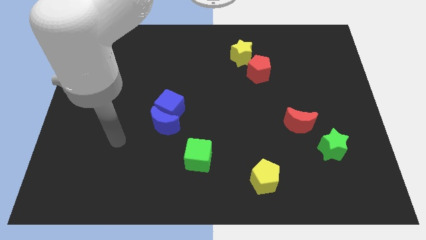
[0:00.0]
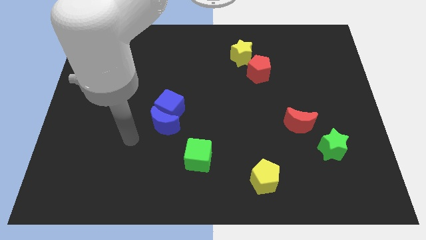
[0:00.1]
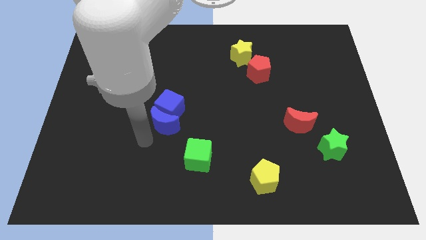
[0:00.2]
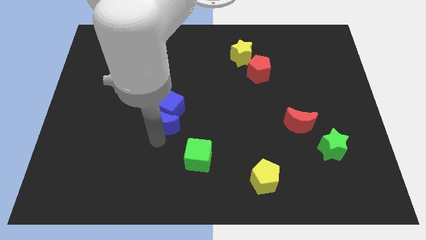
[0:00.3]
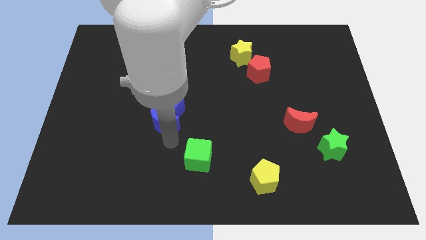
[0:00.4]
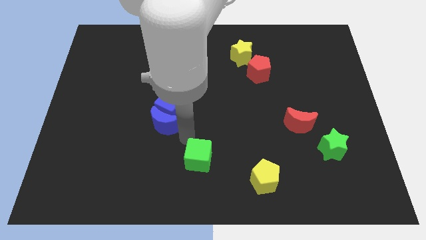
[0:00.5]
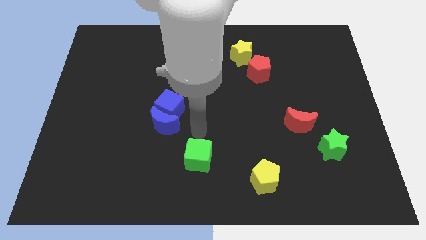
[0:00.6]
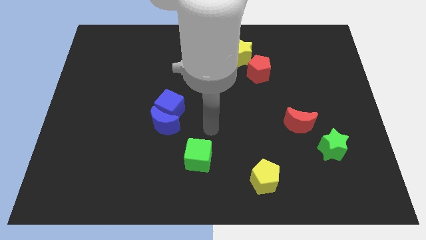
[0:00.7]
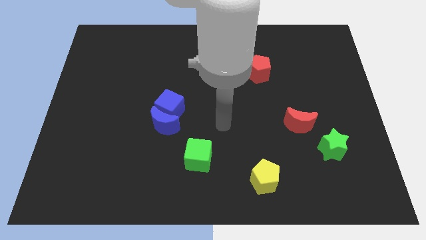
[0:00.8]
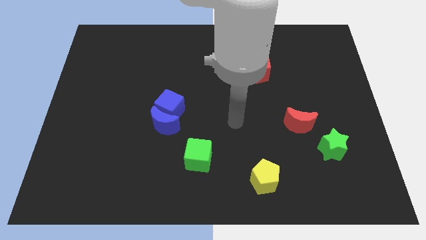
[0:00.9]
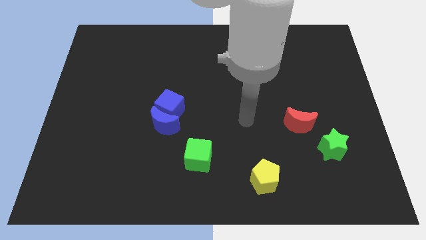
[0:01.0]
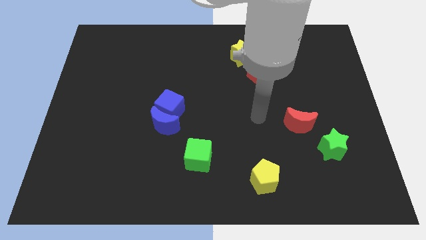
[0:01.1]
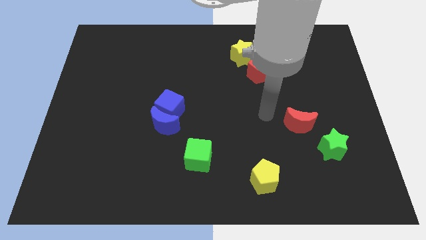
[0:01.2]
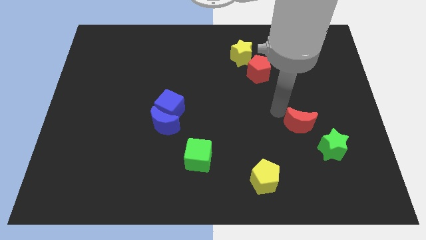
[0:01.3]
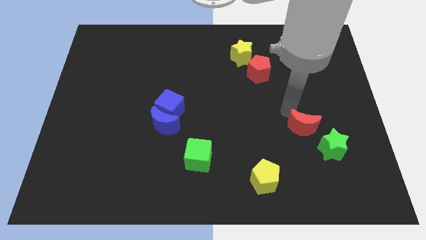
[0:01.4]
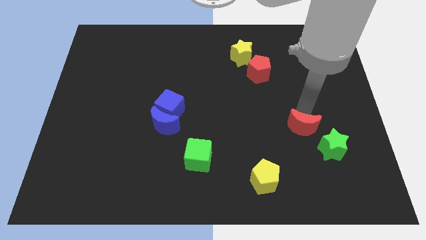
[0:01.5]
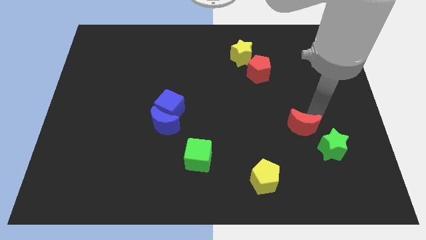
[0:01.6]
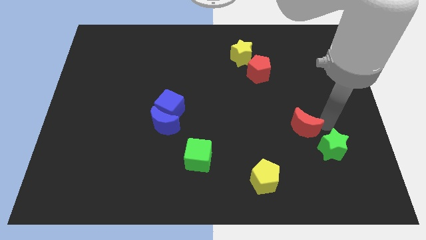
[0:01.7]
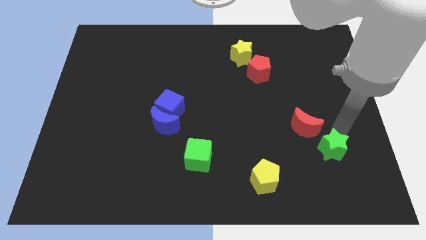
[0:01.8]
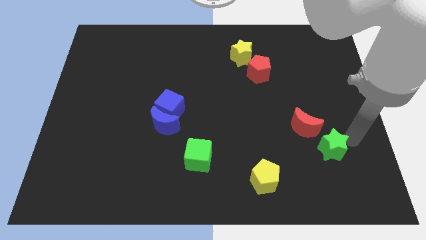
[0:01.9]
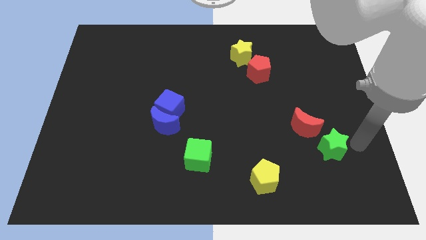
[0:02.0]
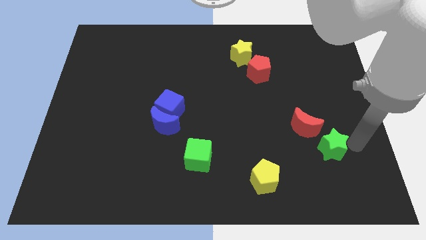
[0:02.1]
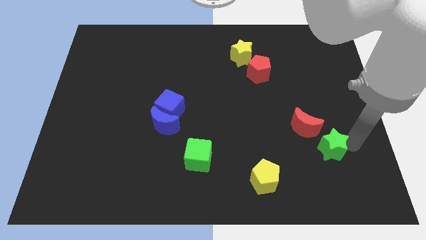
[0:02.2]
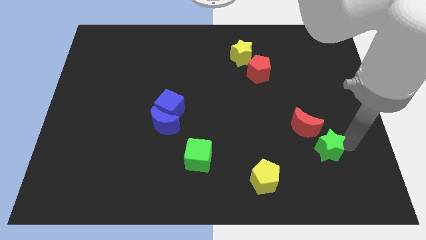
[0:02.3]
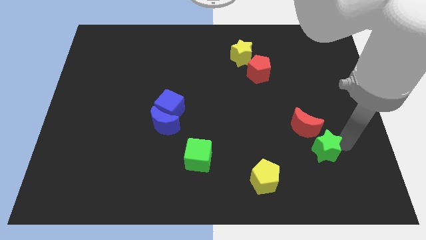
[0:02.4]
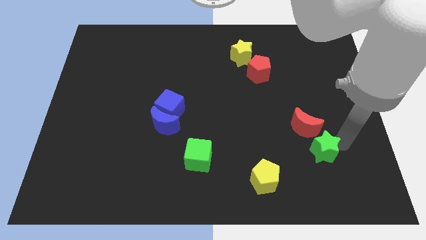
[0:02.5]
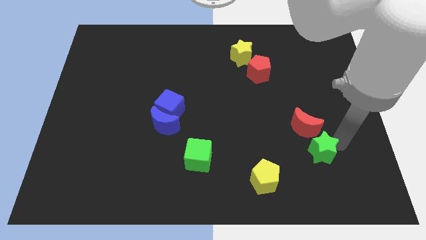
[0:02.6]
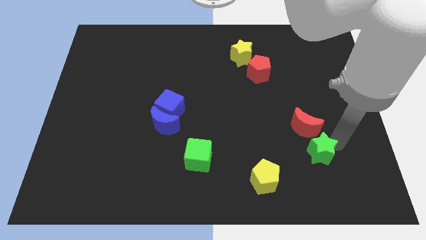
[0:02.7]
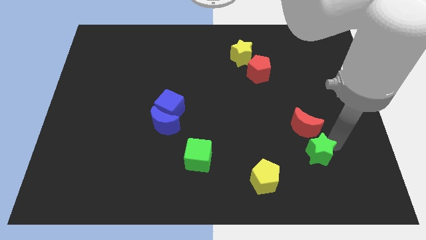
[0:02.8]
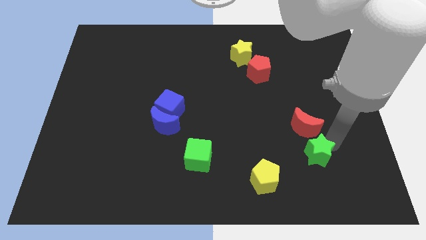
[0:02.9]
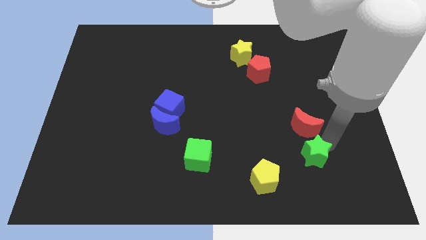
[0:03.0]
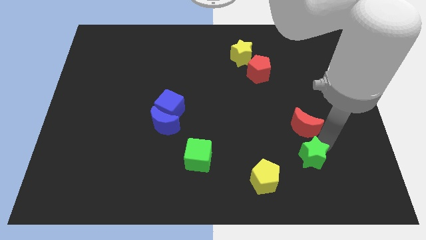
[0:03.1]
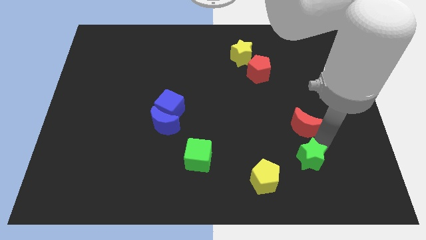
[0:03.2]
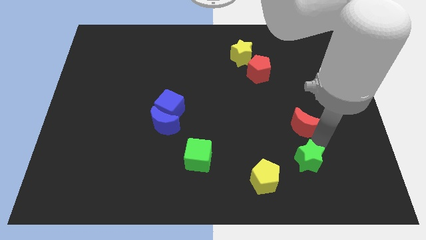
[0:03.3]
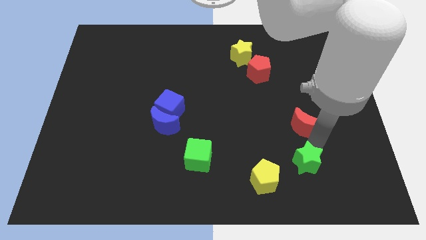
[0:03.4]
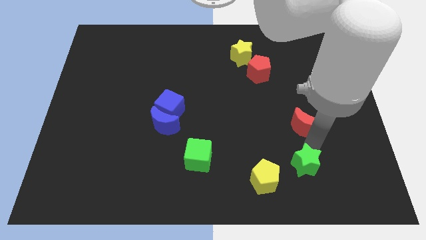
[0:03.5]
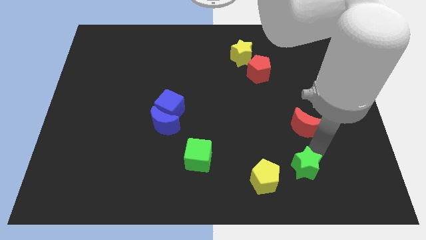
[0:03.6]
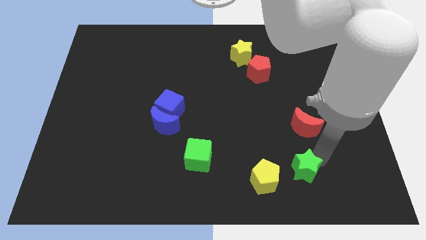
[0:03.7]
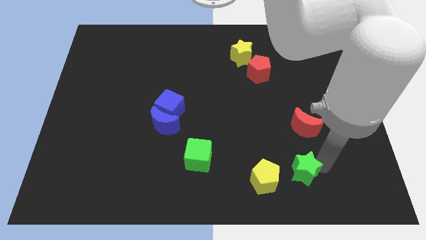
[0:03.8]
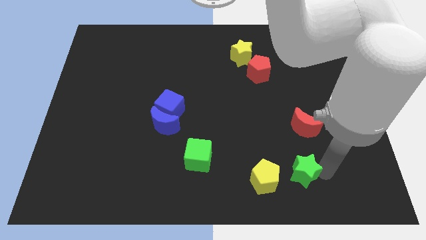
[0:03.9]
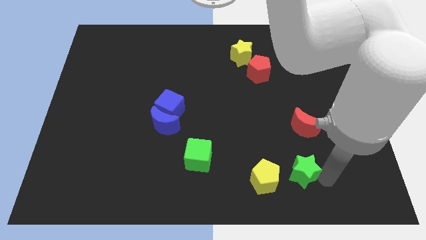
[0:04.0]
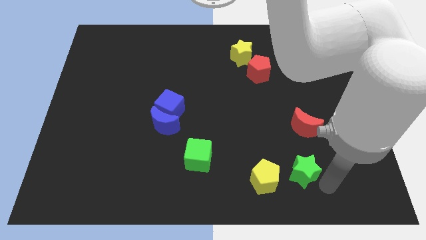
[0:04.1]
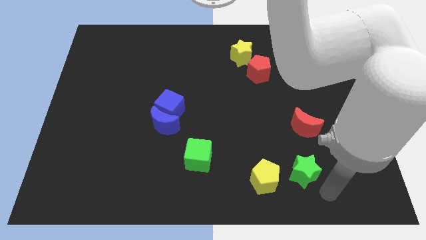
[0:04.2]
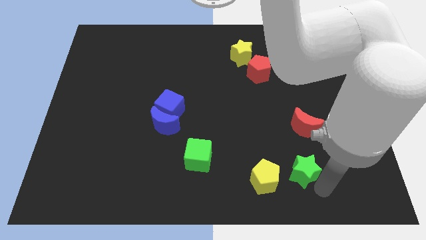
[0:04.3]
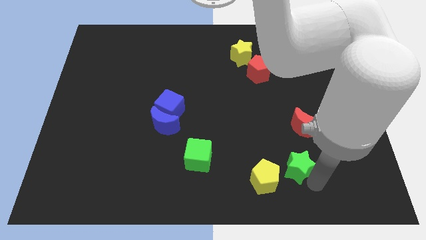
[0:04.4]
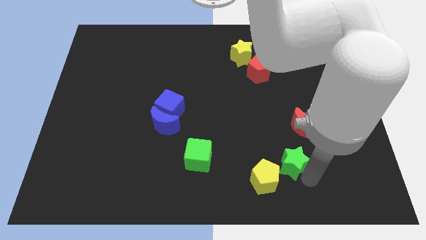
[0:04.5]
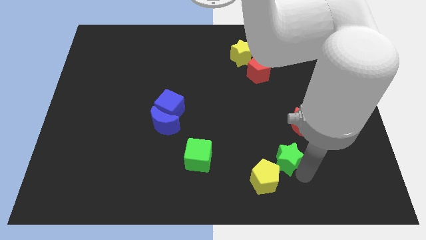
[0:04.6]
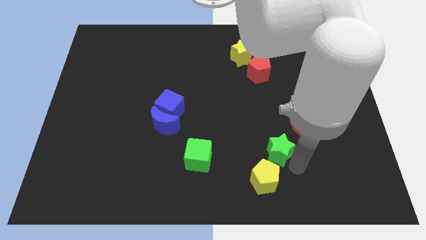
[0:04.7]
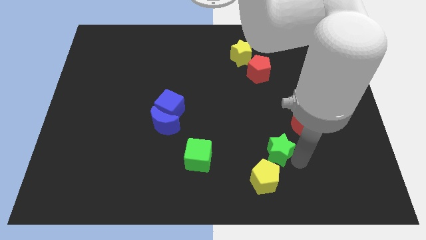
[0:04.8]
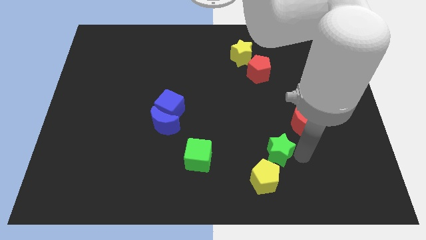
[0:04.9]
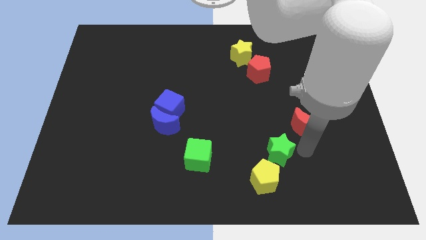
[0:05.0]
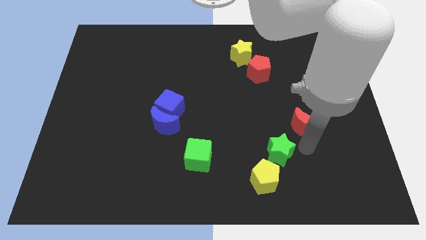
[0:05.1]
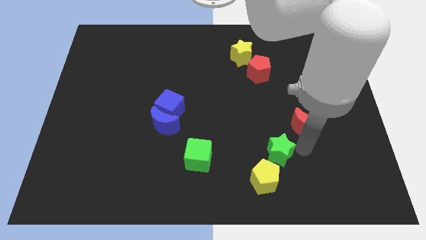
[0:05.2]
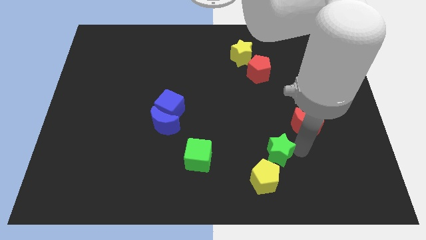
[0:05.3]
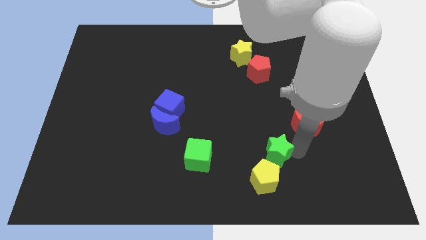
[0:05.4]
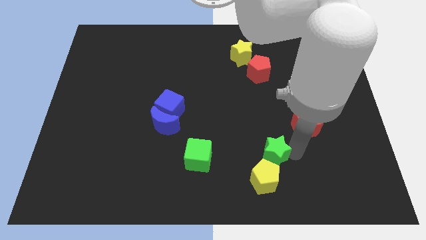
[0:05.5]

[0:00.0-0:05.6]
slide the green star right of the green cube

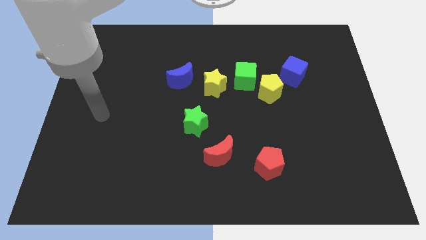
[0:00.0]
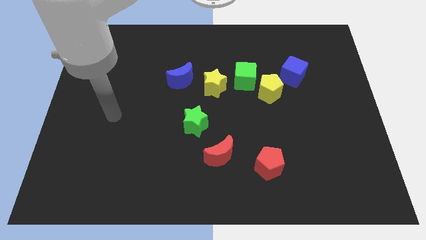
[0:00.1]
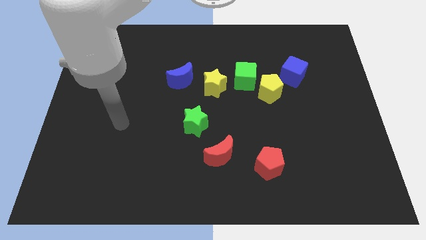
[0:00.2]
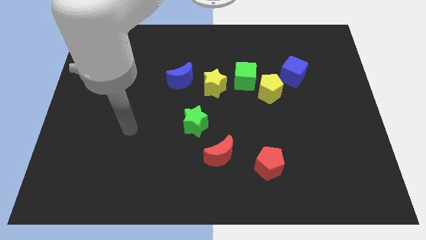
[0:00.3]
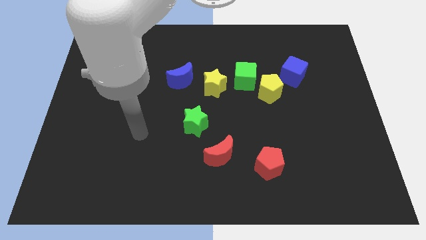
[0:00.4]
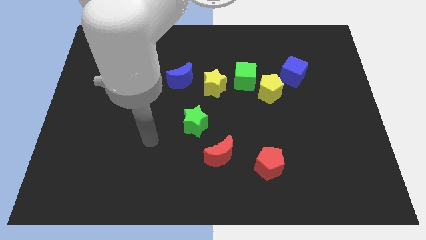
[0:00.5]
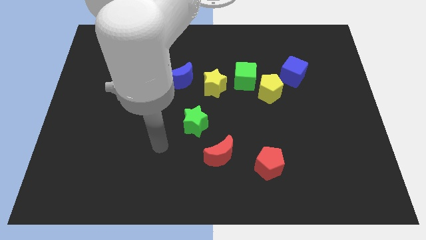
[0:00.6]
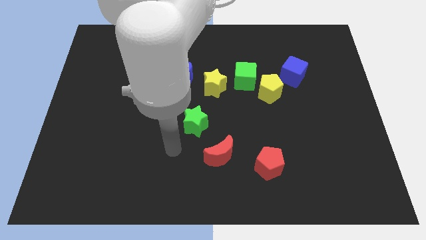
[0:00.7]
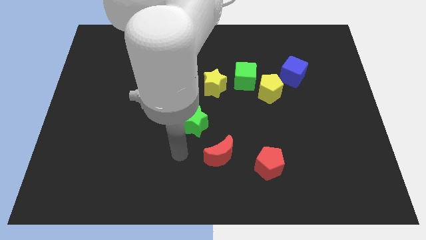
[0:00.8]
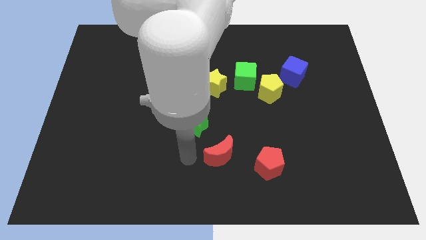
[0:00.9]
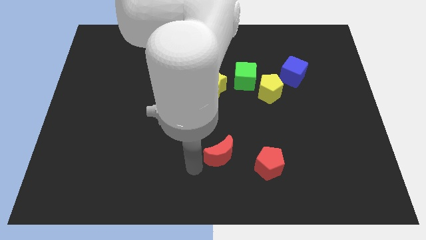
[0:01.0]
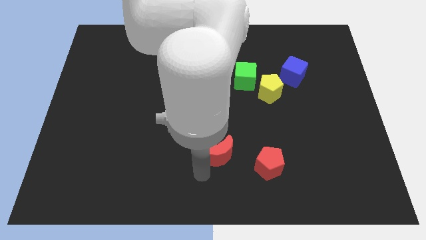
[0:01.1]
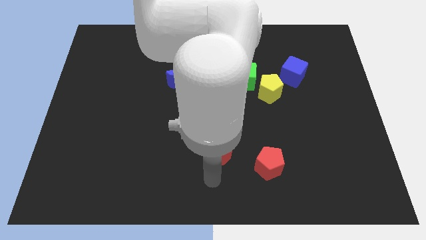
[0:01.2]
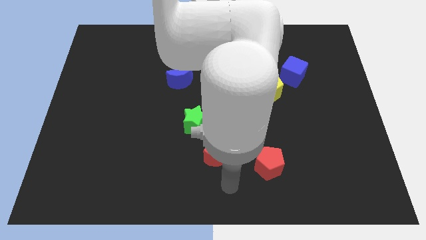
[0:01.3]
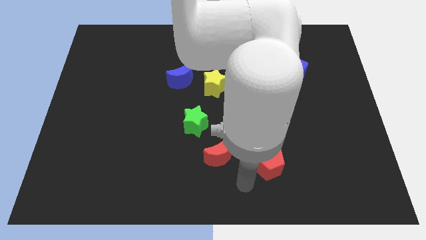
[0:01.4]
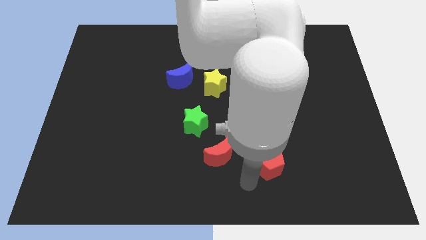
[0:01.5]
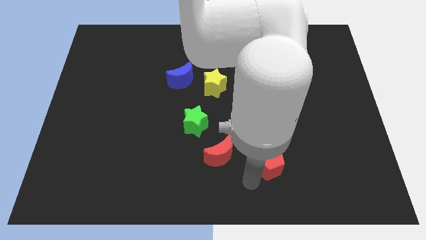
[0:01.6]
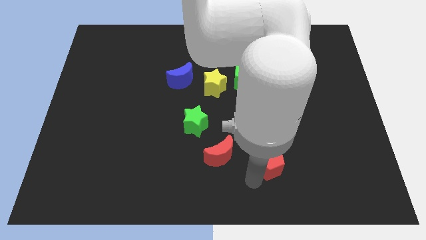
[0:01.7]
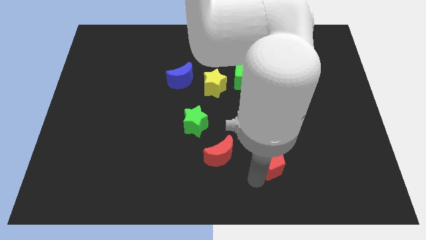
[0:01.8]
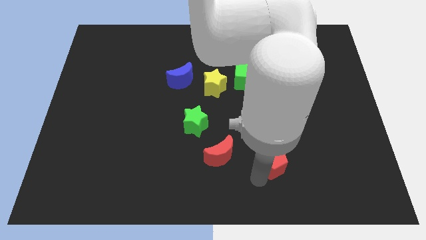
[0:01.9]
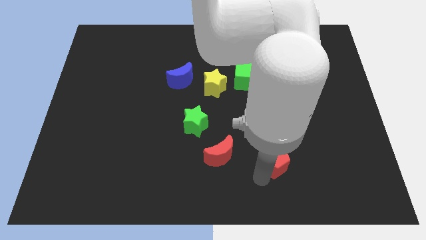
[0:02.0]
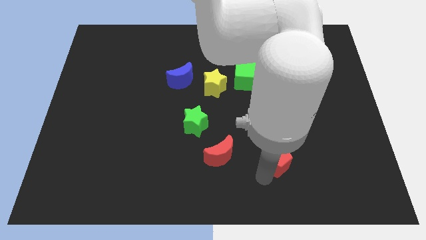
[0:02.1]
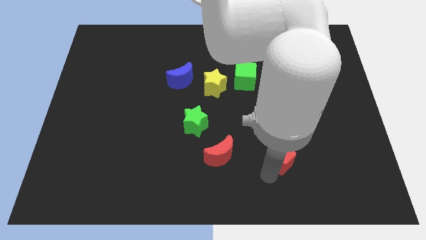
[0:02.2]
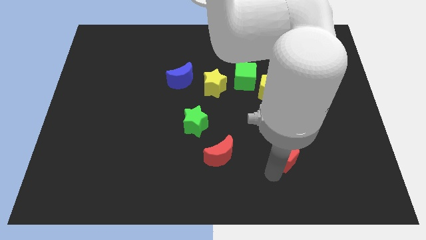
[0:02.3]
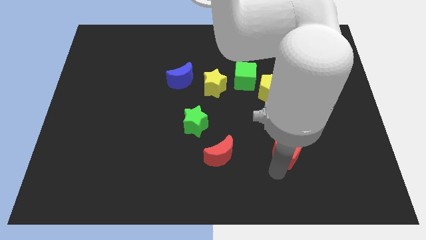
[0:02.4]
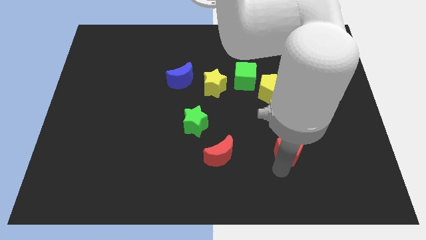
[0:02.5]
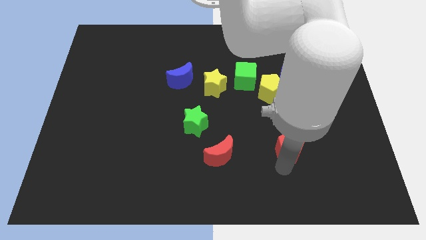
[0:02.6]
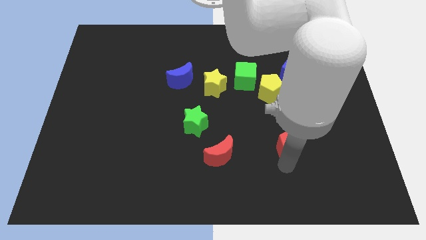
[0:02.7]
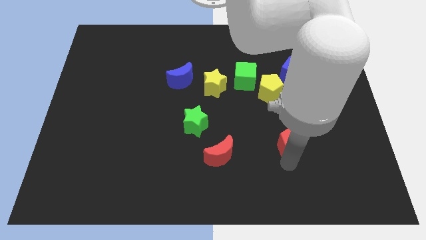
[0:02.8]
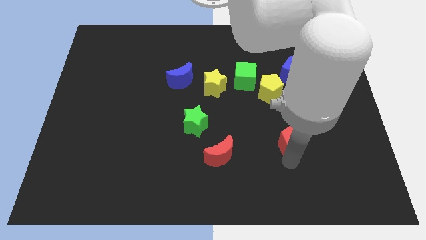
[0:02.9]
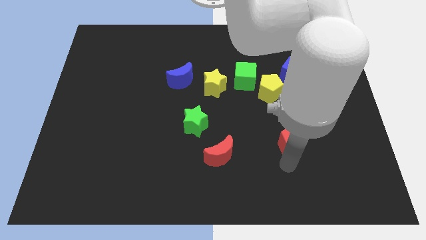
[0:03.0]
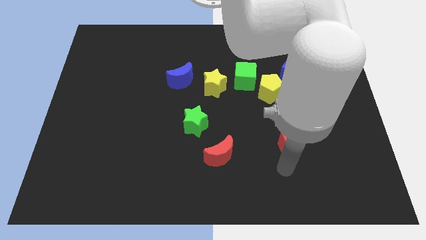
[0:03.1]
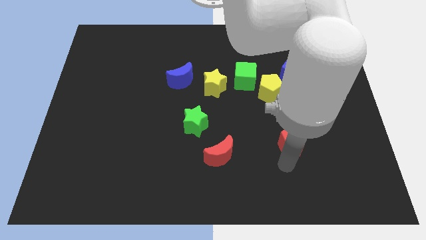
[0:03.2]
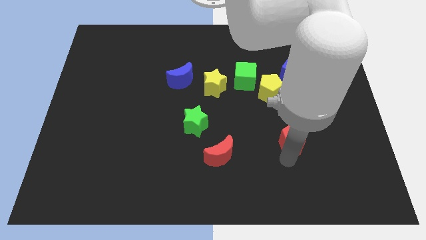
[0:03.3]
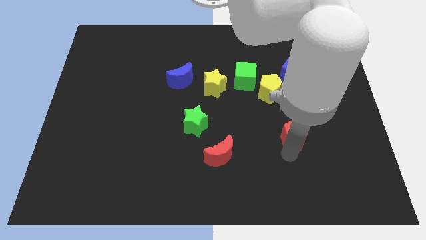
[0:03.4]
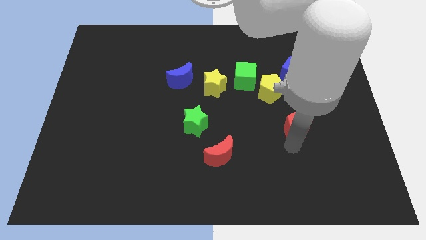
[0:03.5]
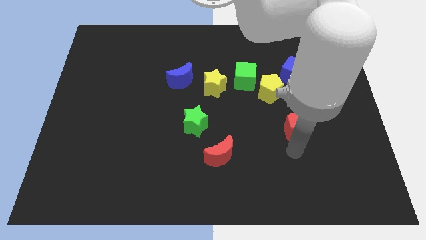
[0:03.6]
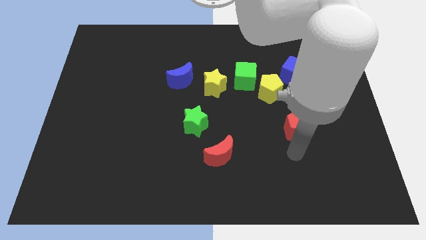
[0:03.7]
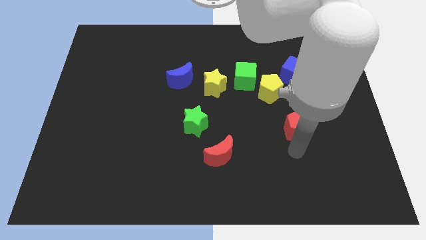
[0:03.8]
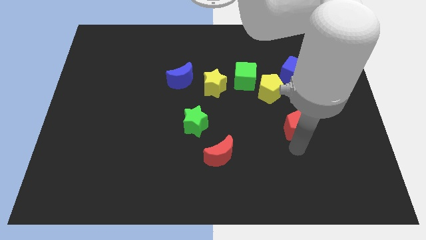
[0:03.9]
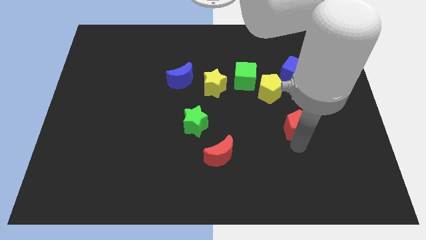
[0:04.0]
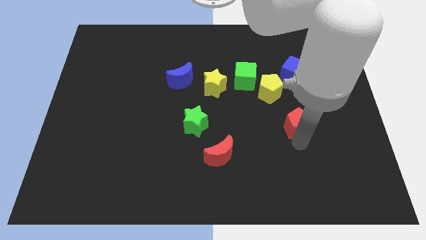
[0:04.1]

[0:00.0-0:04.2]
push the red pentagon below the blue cube
